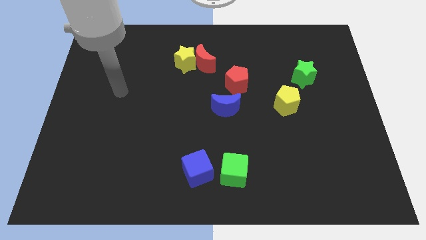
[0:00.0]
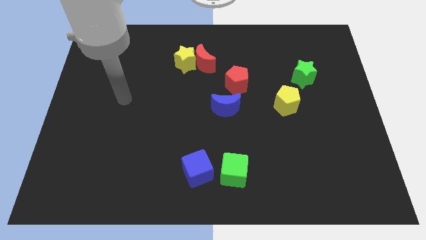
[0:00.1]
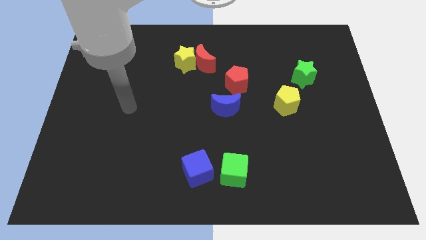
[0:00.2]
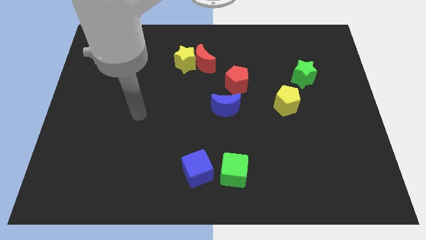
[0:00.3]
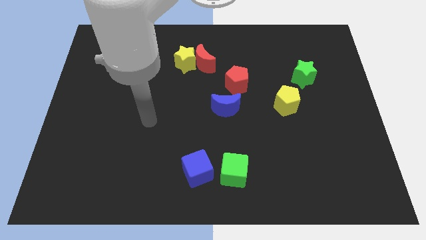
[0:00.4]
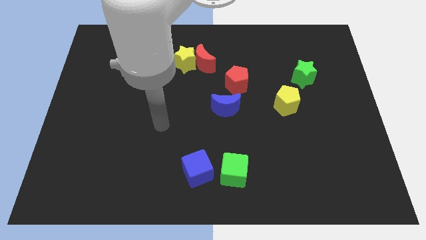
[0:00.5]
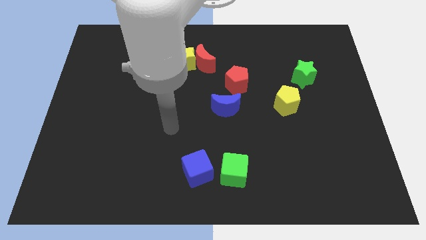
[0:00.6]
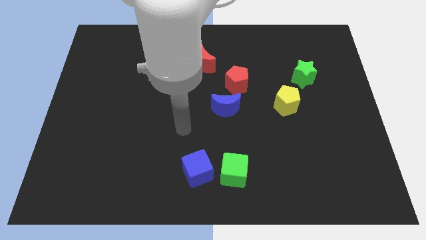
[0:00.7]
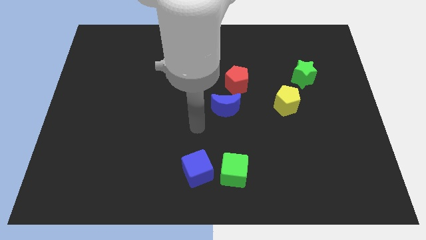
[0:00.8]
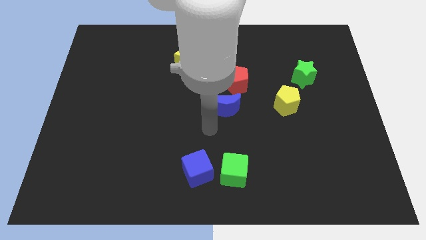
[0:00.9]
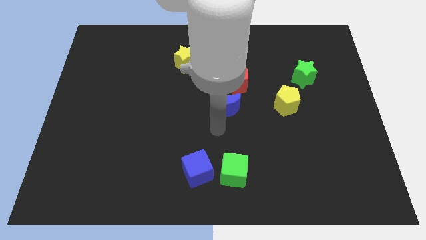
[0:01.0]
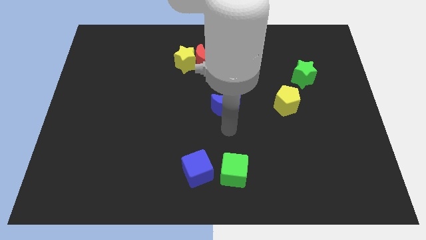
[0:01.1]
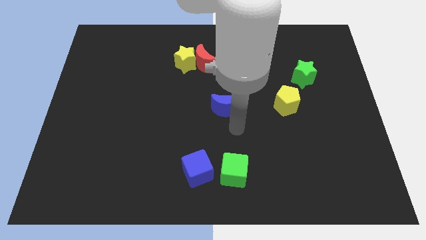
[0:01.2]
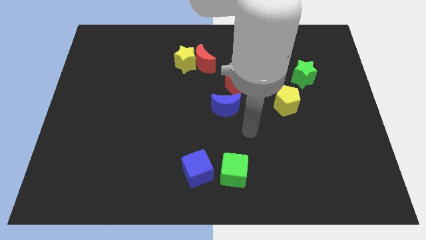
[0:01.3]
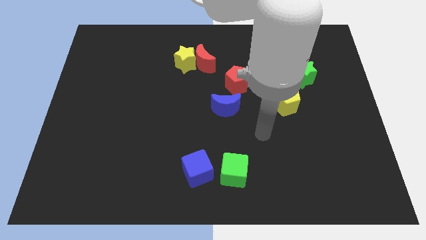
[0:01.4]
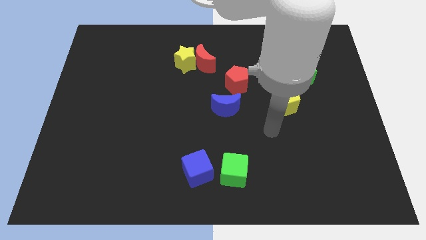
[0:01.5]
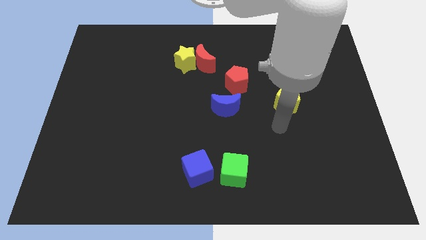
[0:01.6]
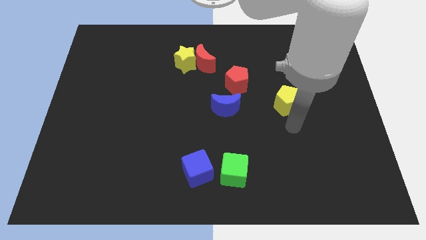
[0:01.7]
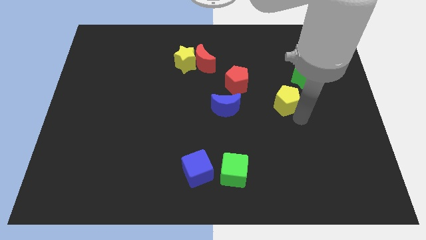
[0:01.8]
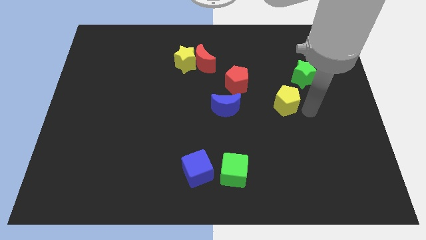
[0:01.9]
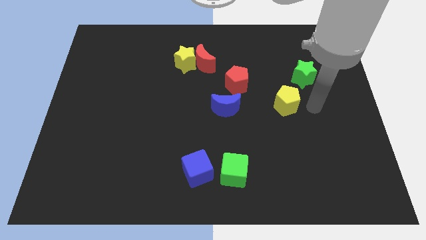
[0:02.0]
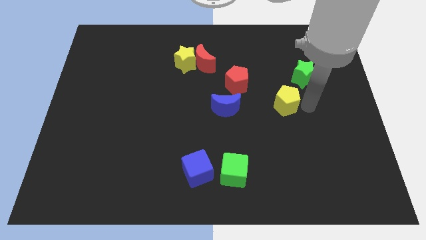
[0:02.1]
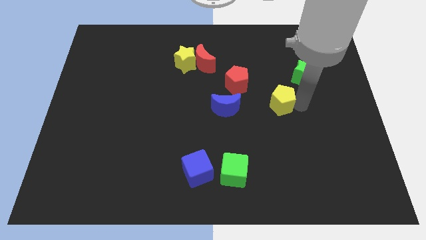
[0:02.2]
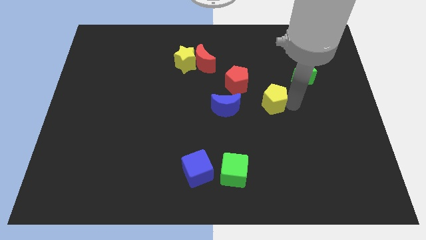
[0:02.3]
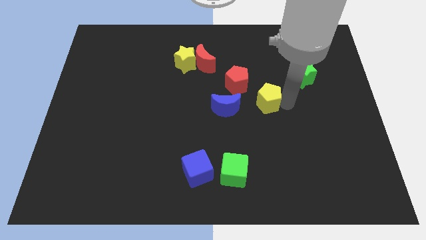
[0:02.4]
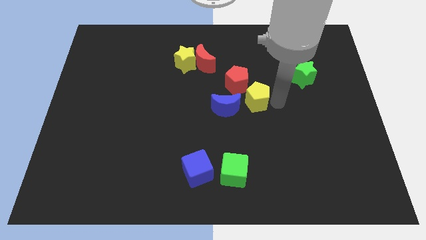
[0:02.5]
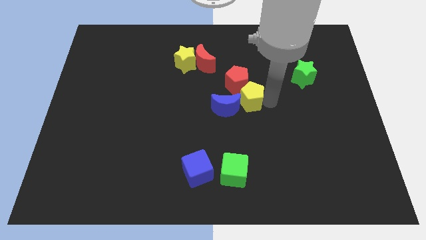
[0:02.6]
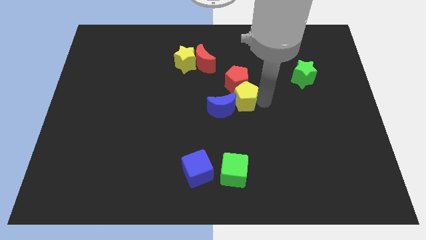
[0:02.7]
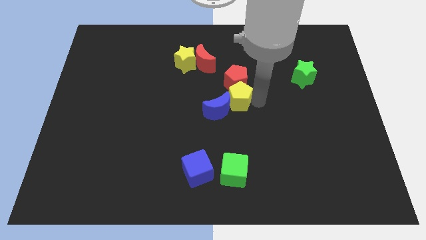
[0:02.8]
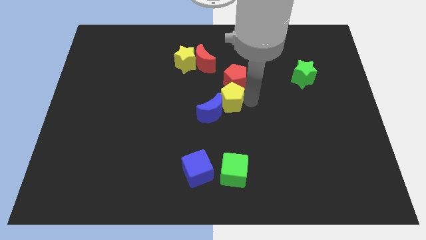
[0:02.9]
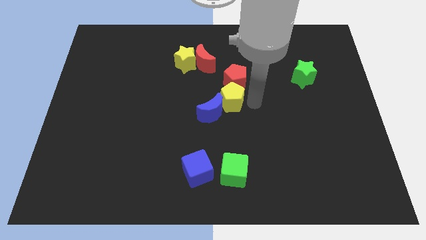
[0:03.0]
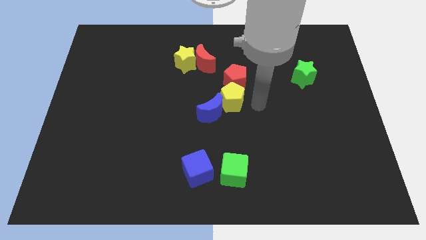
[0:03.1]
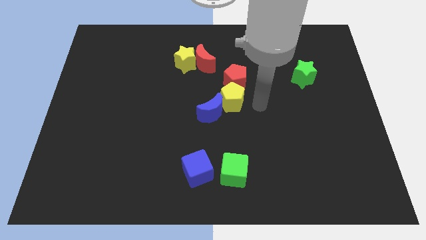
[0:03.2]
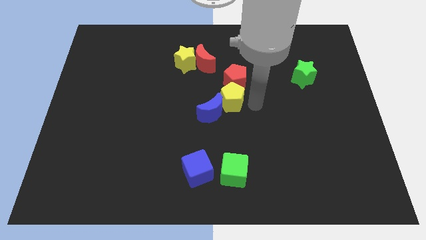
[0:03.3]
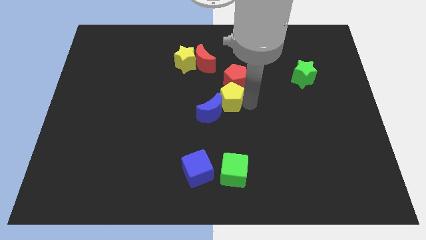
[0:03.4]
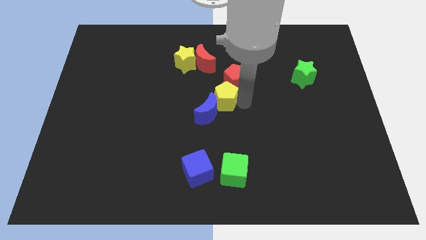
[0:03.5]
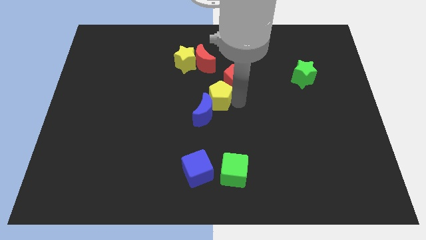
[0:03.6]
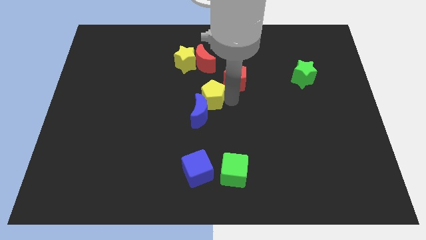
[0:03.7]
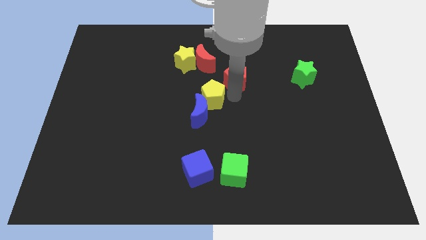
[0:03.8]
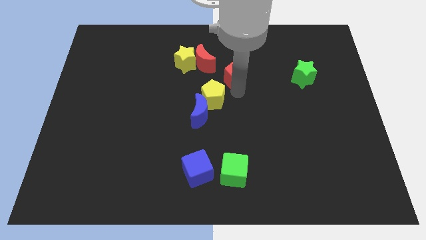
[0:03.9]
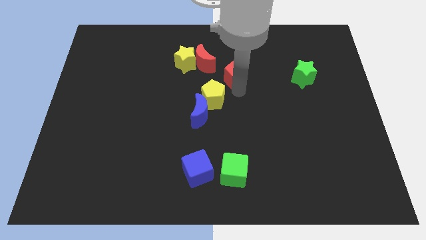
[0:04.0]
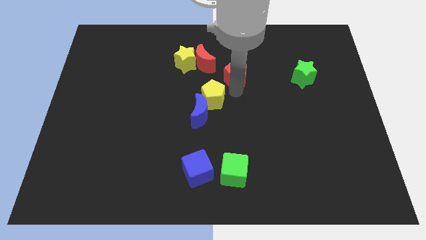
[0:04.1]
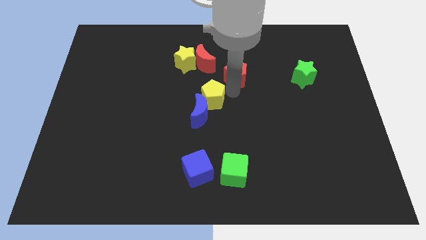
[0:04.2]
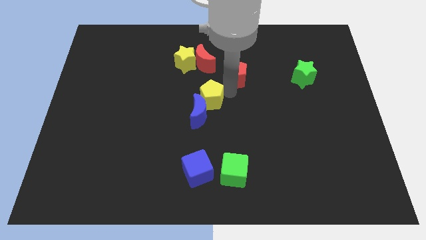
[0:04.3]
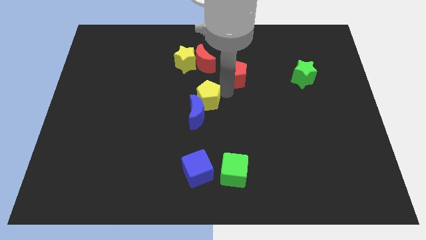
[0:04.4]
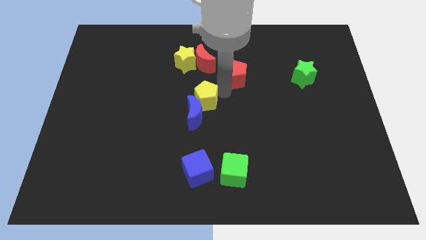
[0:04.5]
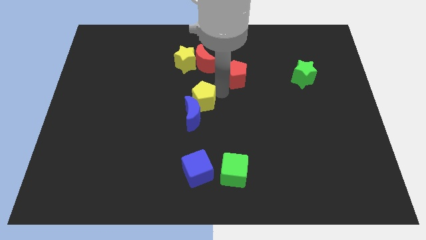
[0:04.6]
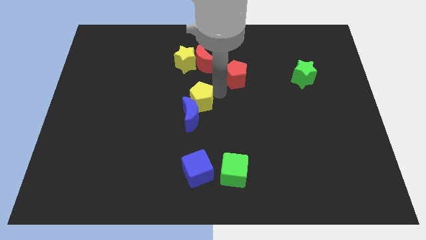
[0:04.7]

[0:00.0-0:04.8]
slide the yellow pentagon to the left

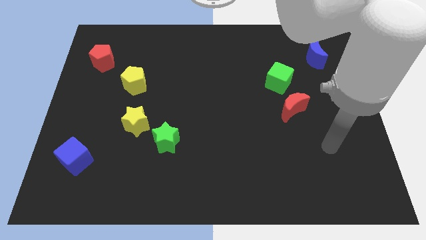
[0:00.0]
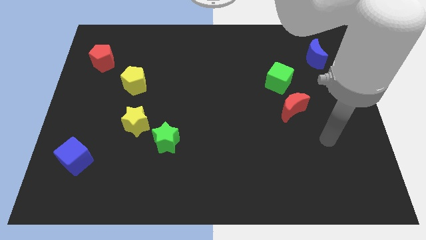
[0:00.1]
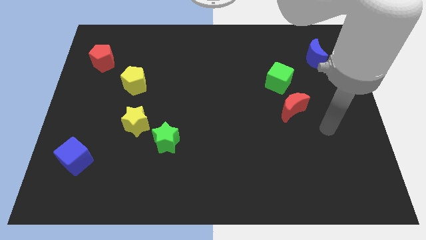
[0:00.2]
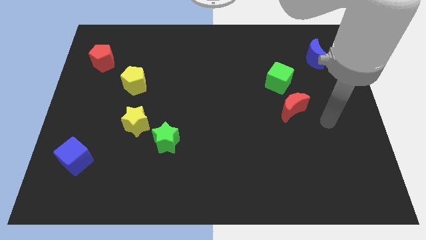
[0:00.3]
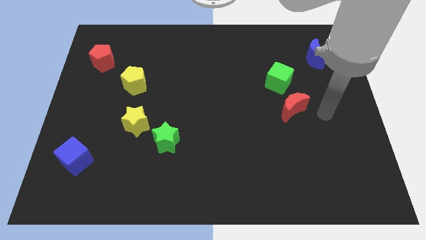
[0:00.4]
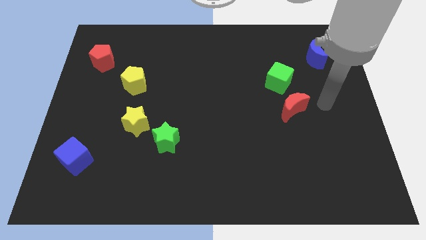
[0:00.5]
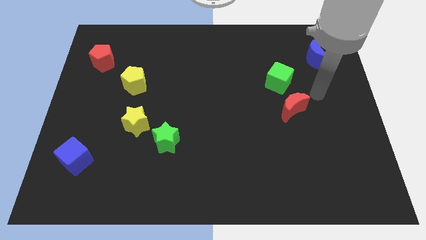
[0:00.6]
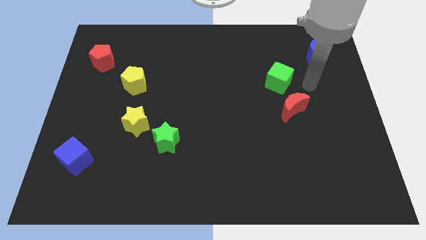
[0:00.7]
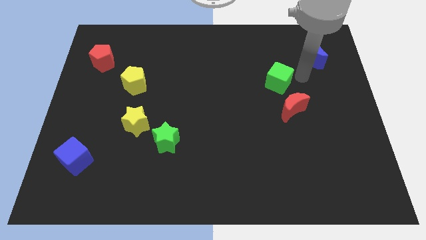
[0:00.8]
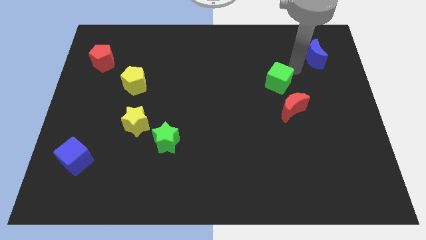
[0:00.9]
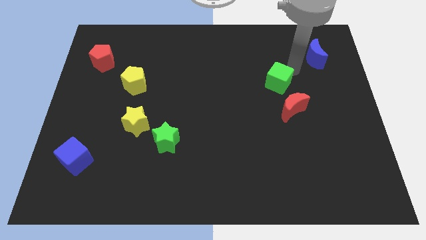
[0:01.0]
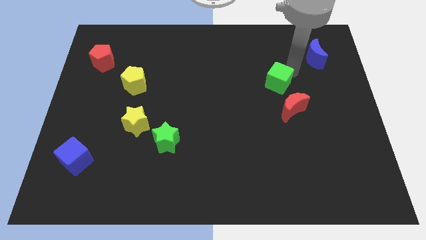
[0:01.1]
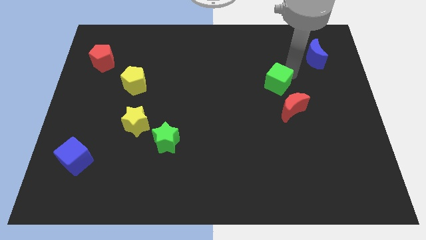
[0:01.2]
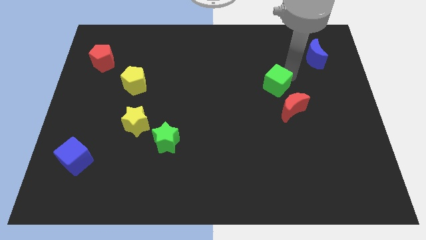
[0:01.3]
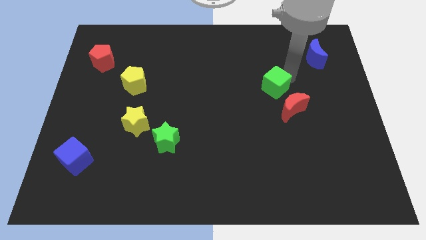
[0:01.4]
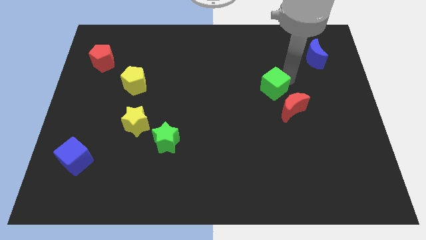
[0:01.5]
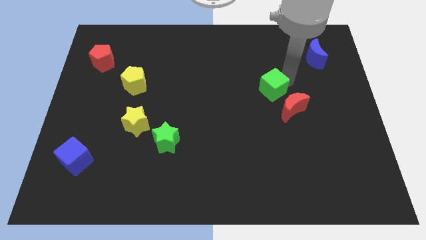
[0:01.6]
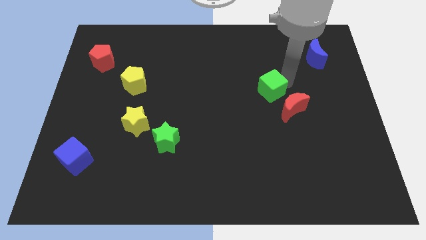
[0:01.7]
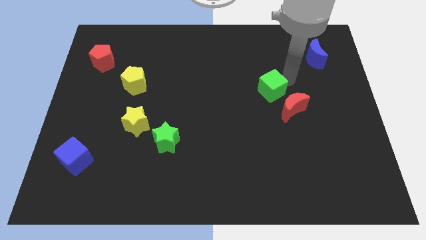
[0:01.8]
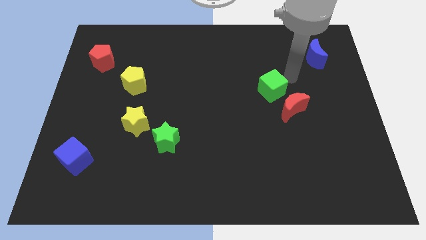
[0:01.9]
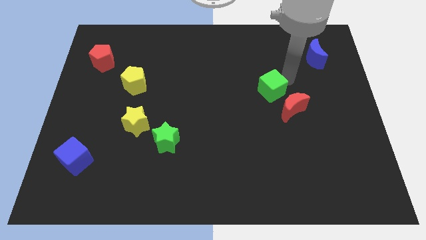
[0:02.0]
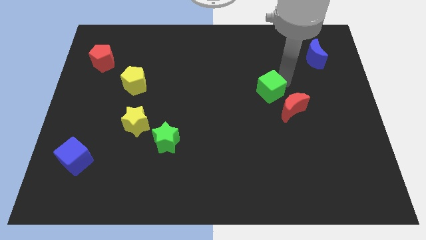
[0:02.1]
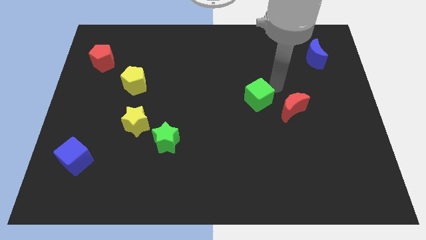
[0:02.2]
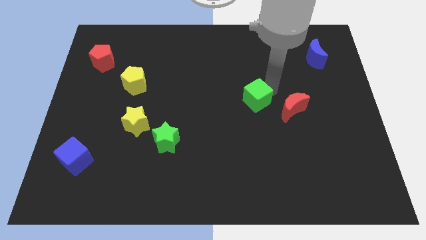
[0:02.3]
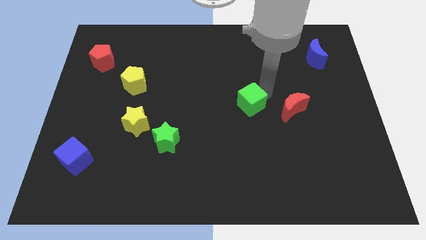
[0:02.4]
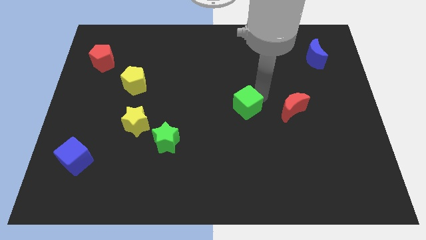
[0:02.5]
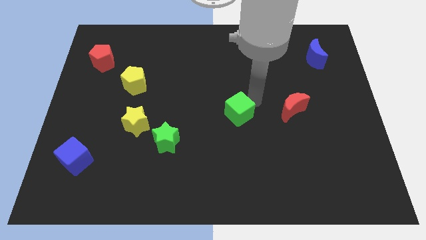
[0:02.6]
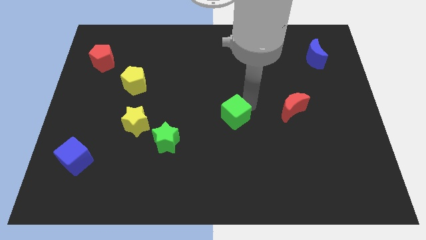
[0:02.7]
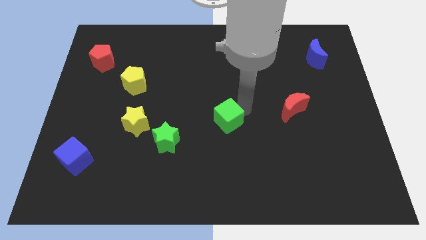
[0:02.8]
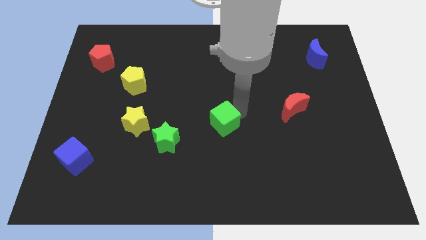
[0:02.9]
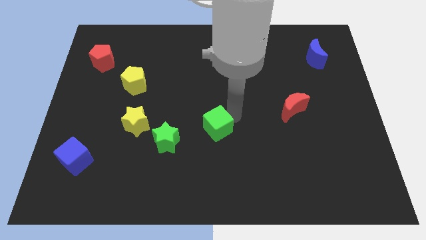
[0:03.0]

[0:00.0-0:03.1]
move the green cube diagonally down and to the left
